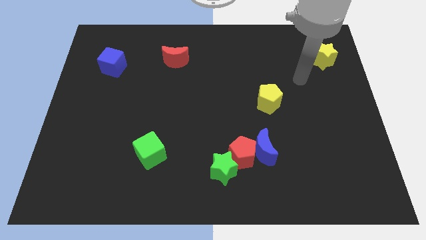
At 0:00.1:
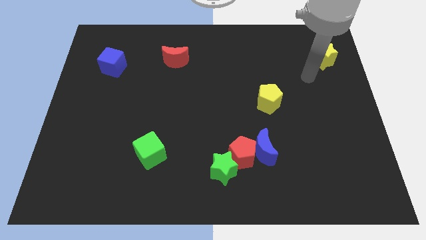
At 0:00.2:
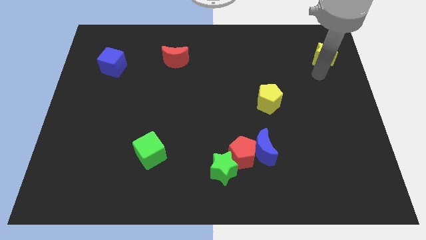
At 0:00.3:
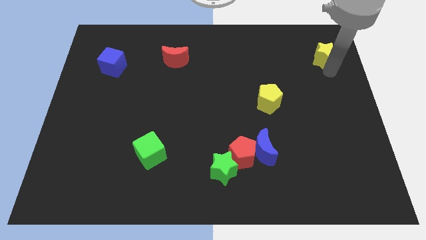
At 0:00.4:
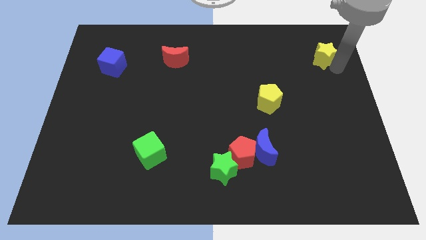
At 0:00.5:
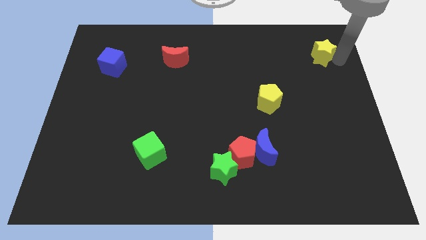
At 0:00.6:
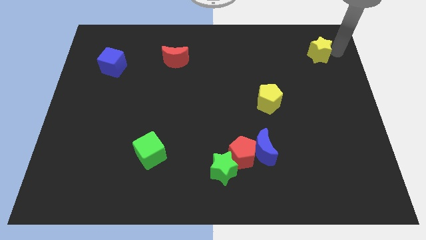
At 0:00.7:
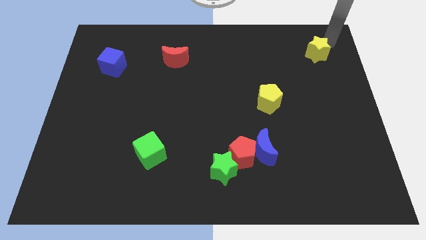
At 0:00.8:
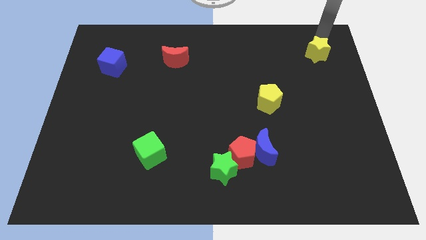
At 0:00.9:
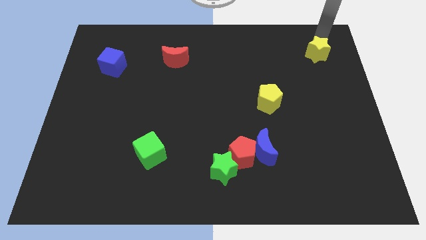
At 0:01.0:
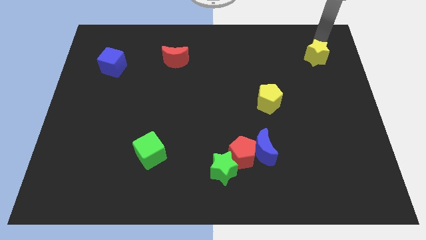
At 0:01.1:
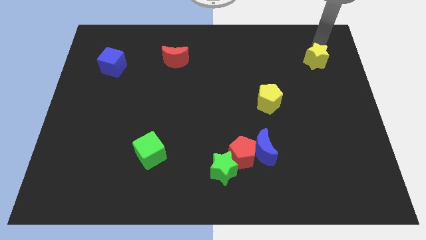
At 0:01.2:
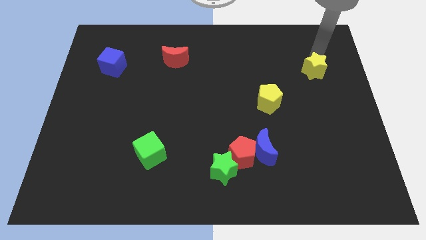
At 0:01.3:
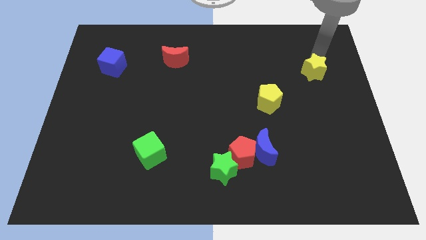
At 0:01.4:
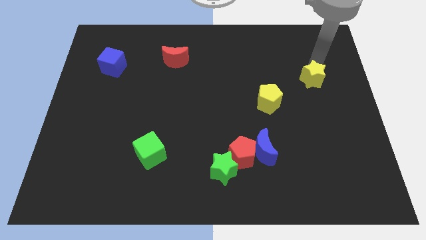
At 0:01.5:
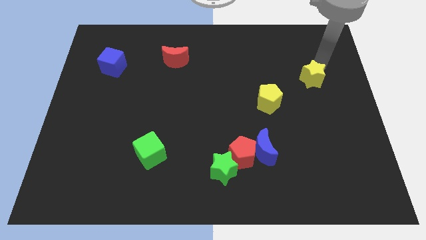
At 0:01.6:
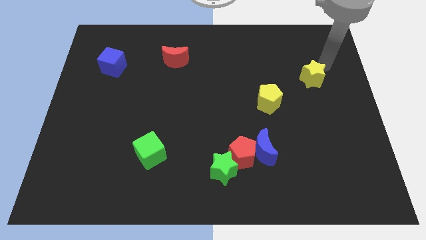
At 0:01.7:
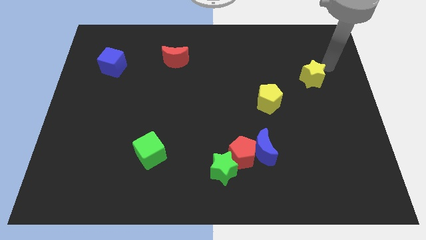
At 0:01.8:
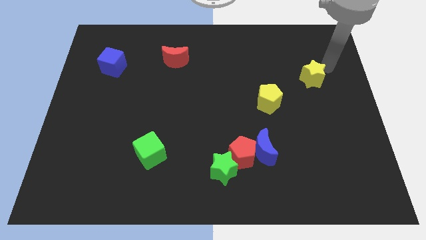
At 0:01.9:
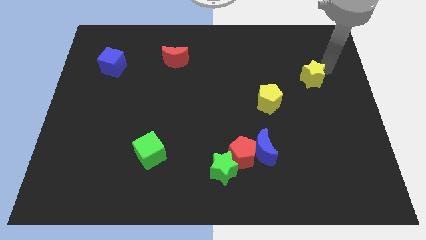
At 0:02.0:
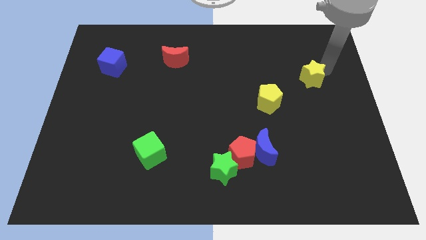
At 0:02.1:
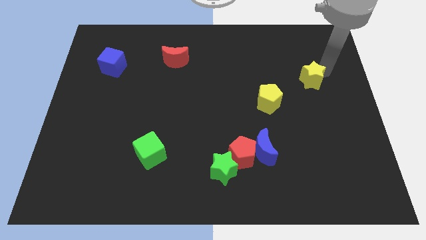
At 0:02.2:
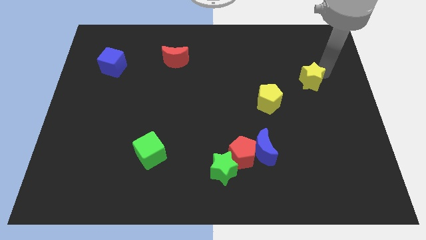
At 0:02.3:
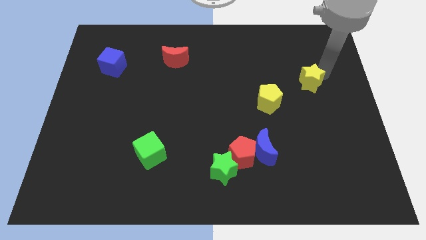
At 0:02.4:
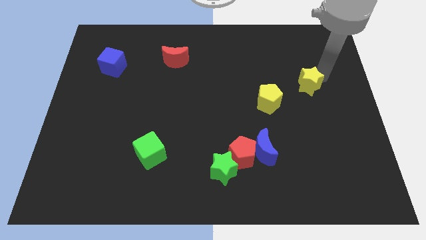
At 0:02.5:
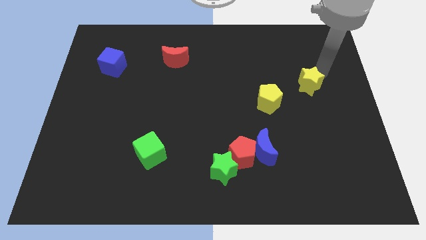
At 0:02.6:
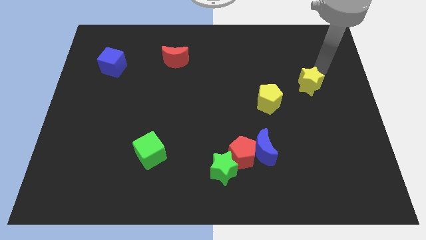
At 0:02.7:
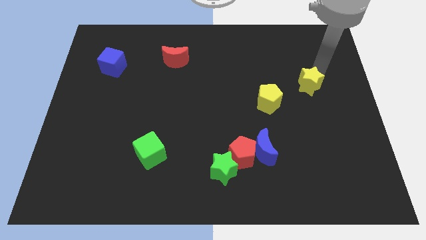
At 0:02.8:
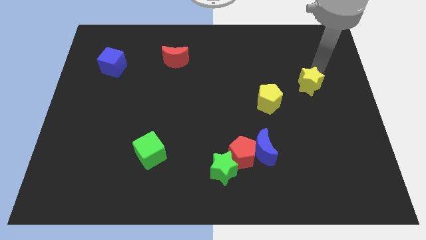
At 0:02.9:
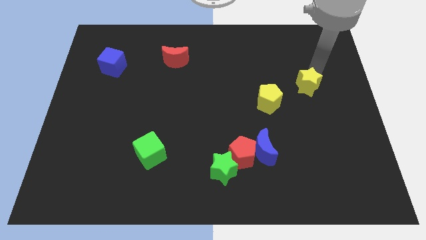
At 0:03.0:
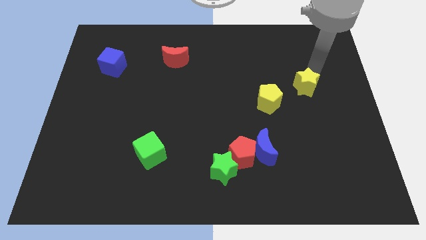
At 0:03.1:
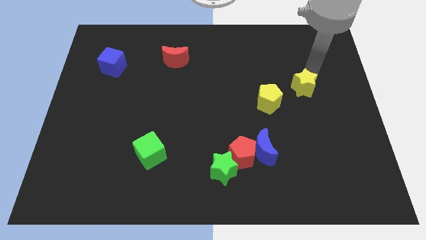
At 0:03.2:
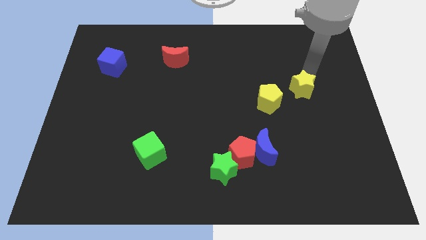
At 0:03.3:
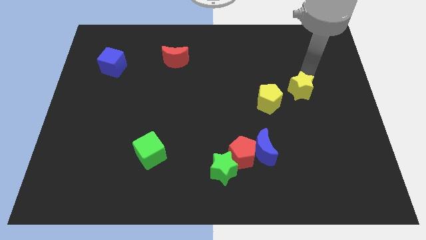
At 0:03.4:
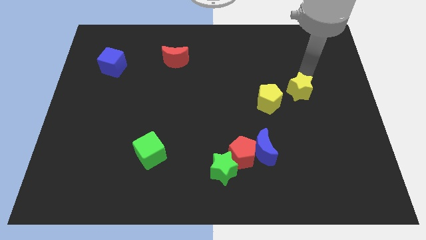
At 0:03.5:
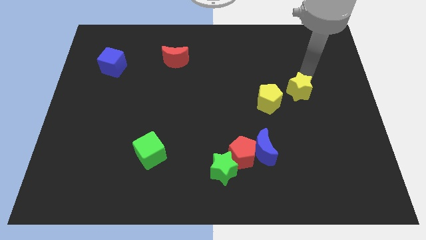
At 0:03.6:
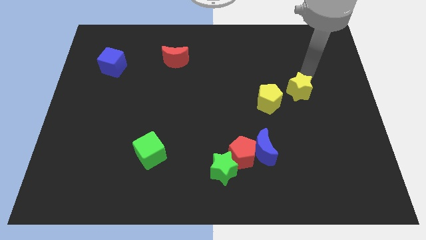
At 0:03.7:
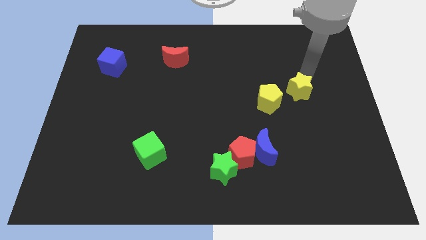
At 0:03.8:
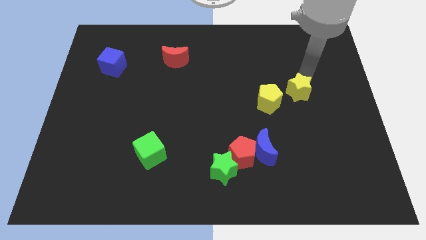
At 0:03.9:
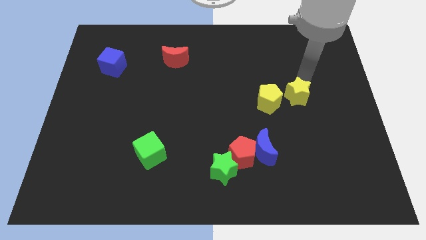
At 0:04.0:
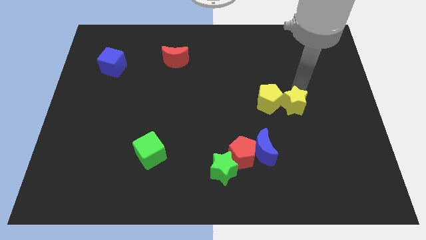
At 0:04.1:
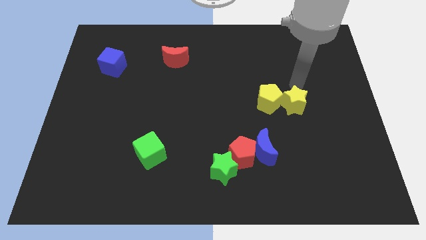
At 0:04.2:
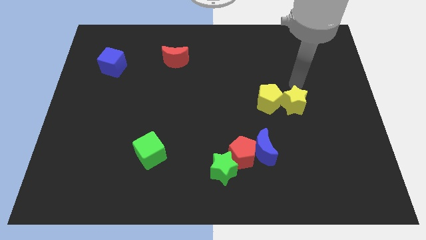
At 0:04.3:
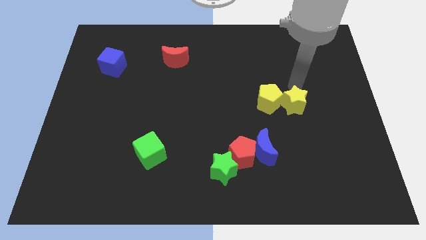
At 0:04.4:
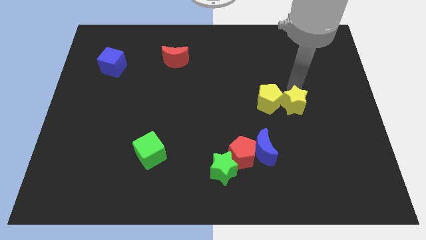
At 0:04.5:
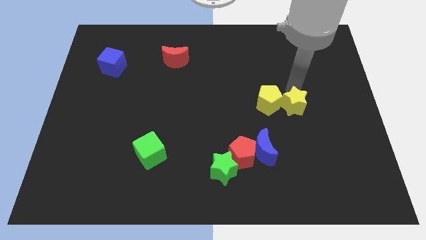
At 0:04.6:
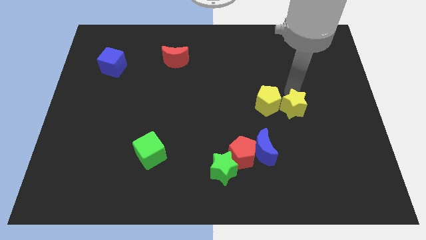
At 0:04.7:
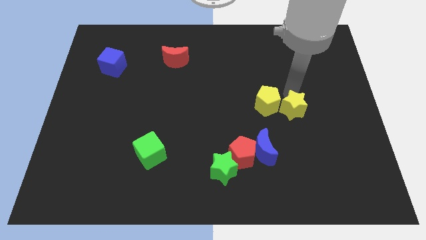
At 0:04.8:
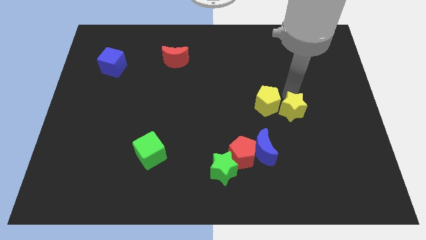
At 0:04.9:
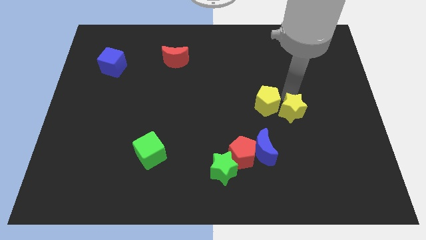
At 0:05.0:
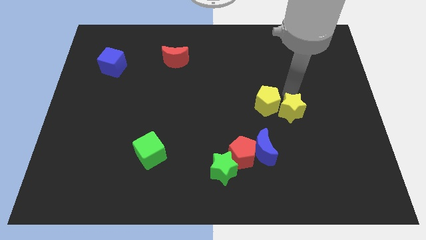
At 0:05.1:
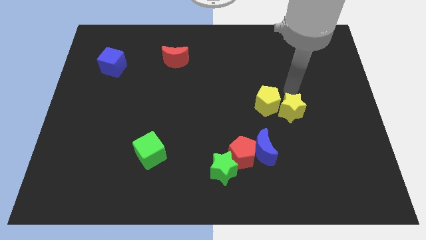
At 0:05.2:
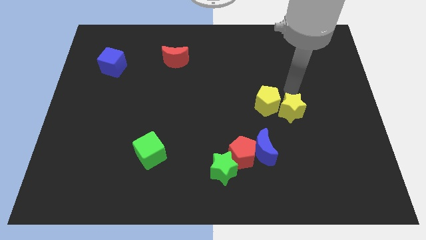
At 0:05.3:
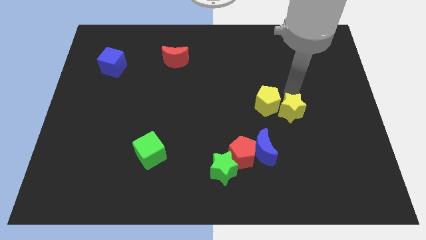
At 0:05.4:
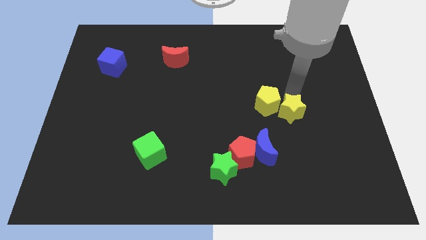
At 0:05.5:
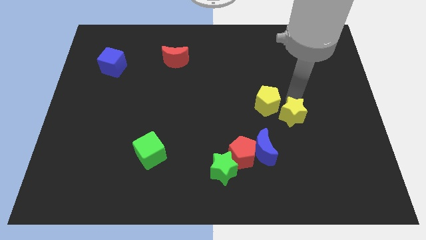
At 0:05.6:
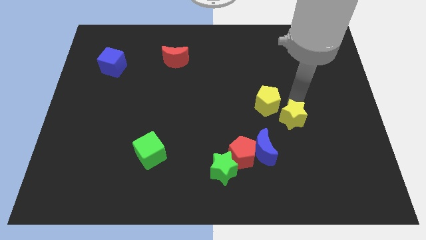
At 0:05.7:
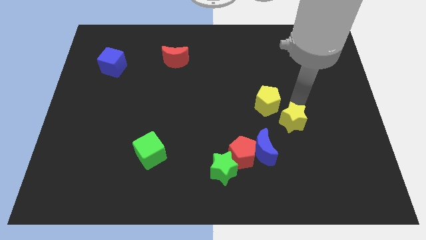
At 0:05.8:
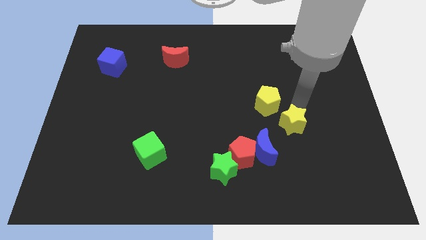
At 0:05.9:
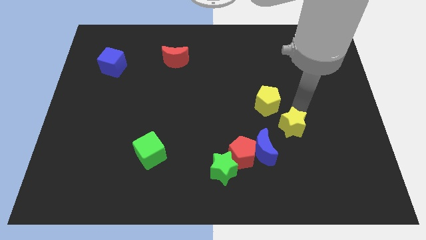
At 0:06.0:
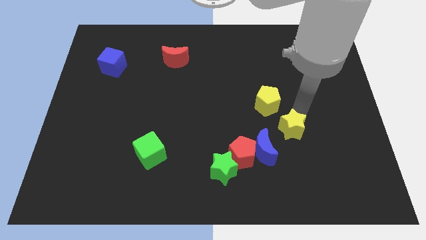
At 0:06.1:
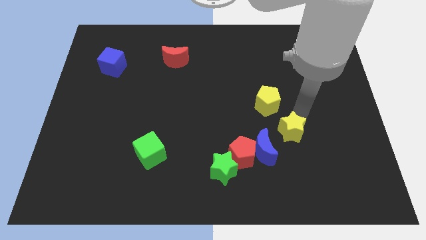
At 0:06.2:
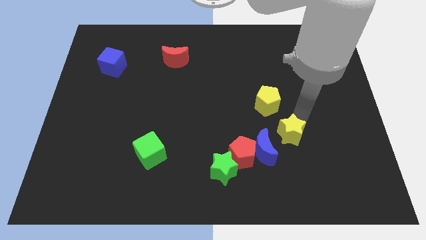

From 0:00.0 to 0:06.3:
move the yellow star to the top right of the red pentagon

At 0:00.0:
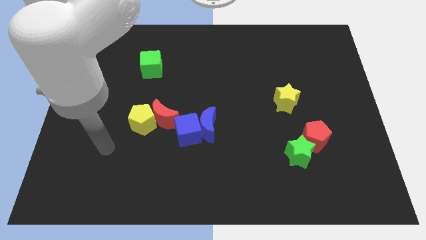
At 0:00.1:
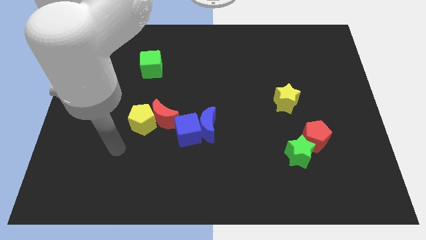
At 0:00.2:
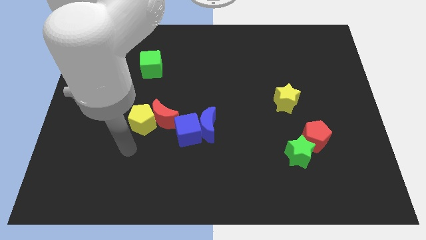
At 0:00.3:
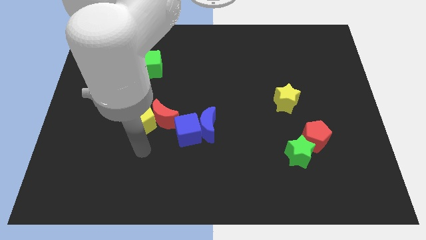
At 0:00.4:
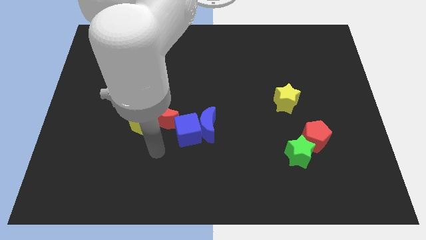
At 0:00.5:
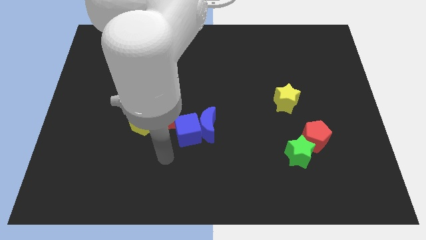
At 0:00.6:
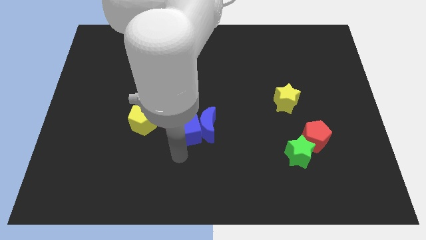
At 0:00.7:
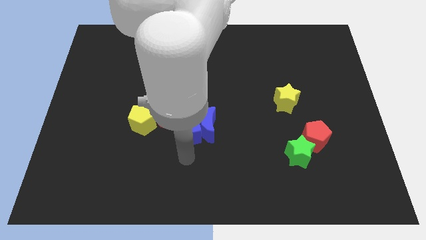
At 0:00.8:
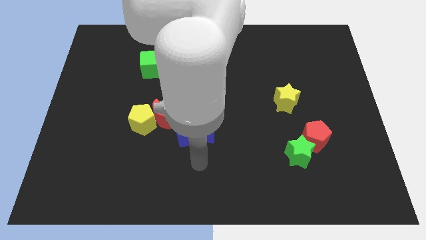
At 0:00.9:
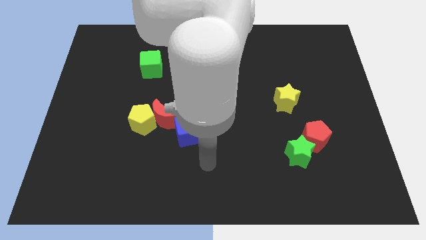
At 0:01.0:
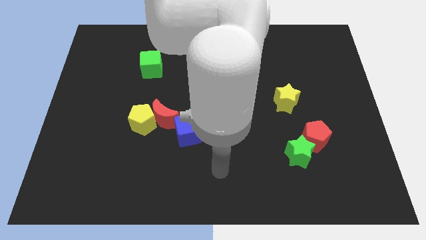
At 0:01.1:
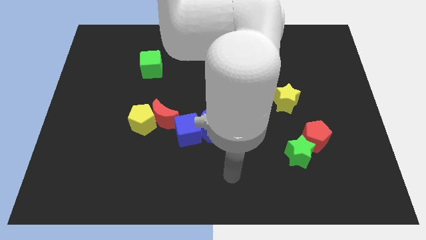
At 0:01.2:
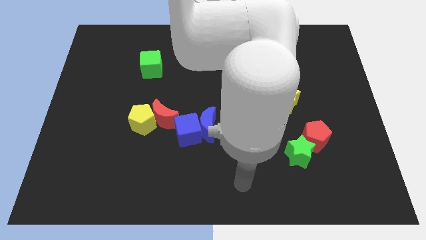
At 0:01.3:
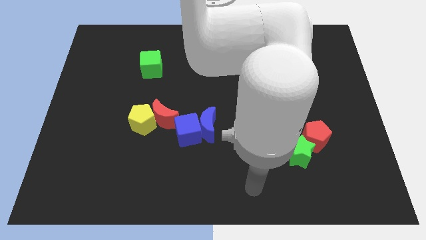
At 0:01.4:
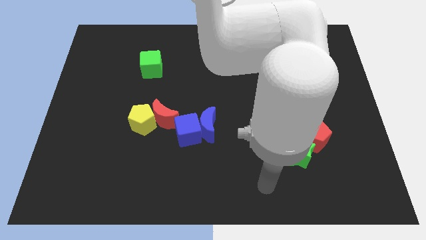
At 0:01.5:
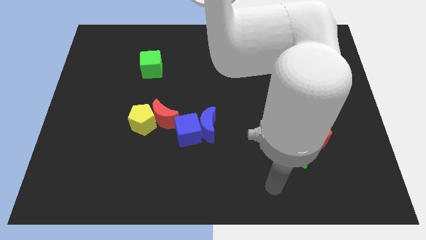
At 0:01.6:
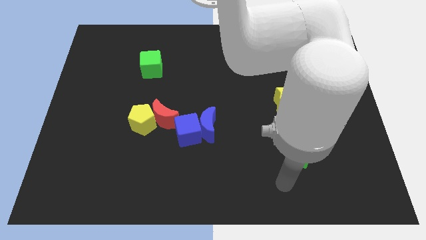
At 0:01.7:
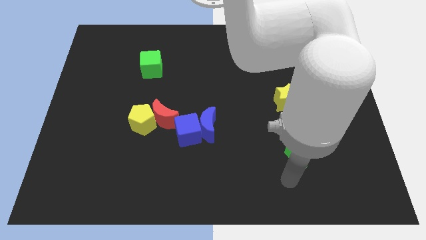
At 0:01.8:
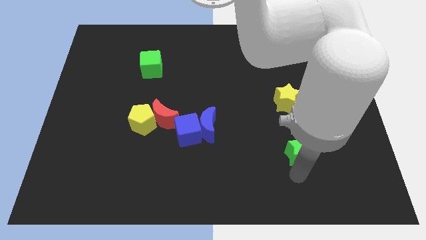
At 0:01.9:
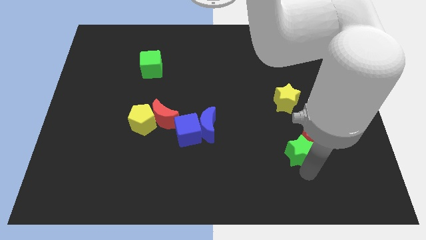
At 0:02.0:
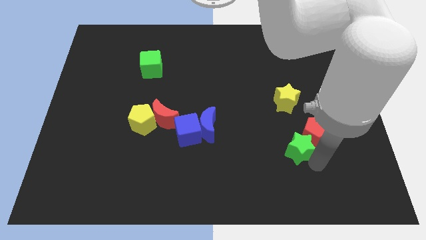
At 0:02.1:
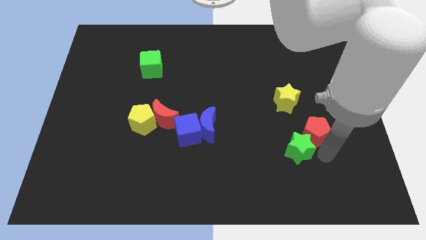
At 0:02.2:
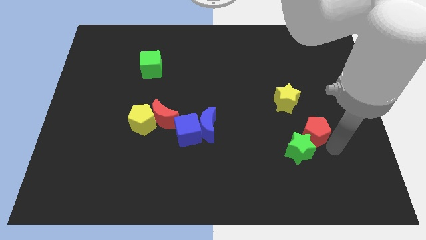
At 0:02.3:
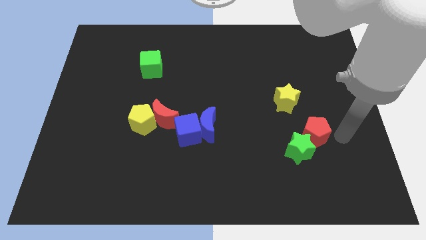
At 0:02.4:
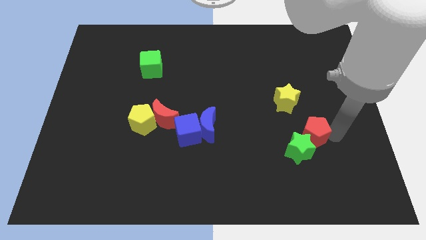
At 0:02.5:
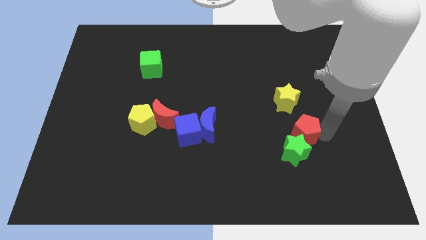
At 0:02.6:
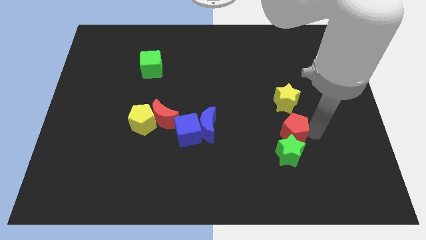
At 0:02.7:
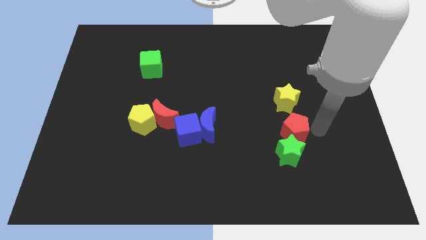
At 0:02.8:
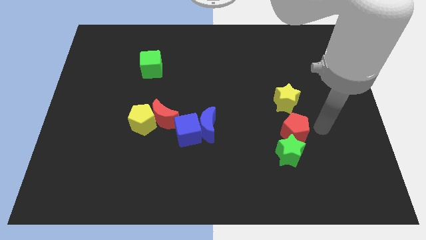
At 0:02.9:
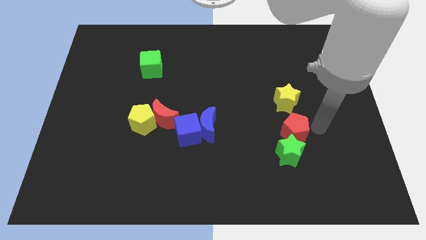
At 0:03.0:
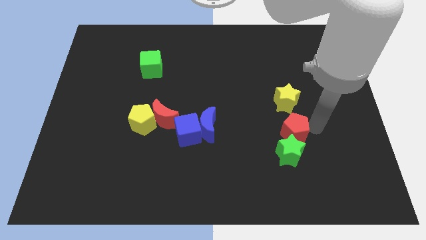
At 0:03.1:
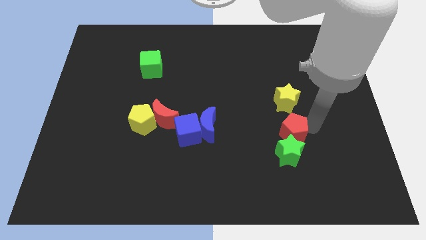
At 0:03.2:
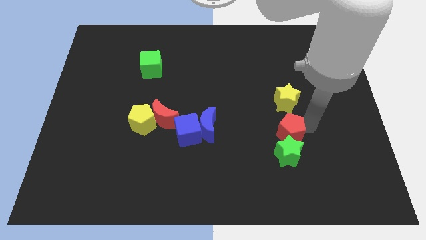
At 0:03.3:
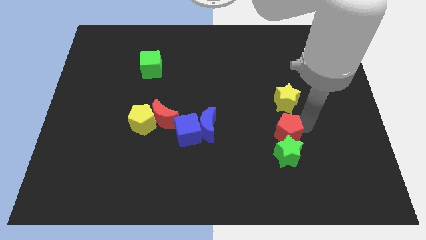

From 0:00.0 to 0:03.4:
slide the red pentagon to the top left side of the green star
